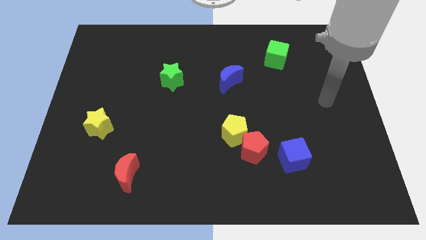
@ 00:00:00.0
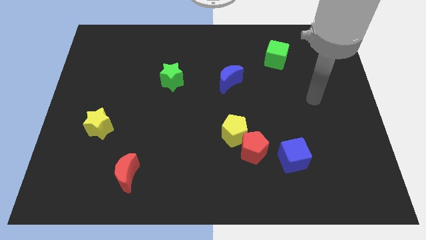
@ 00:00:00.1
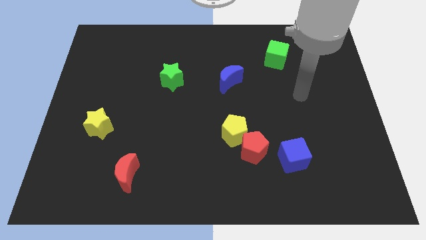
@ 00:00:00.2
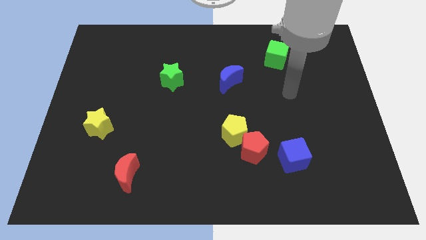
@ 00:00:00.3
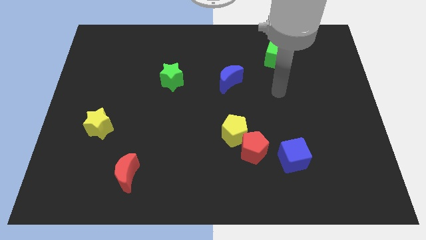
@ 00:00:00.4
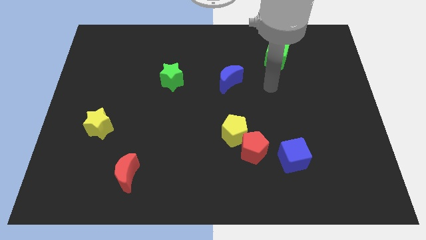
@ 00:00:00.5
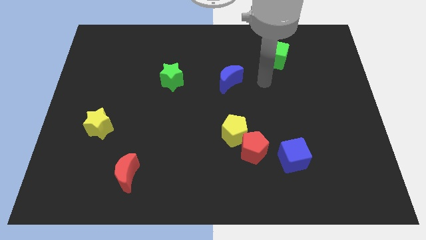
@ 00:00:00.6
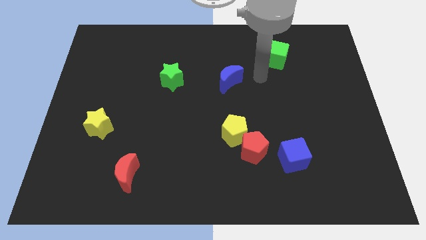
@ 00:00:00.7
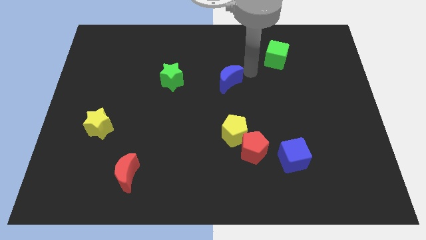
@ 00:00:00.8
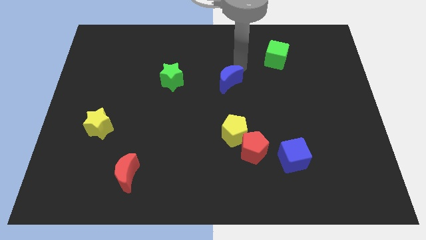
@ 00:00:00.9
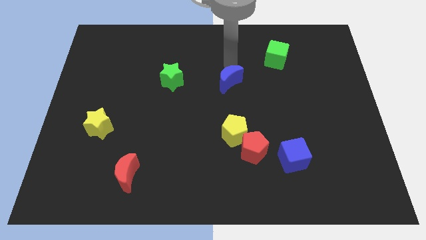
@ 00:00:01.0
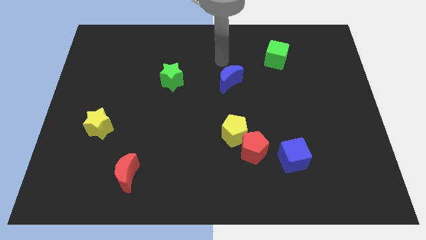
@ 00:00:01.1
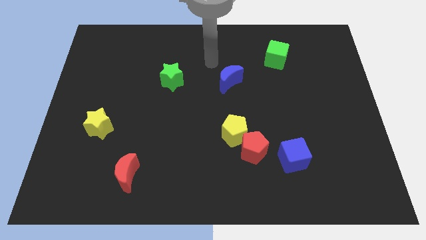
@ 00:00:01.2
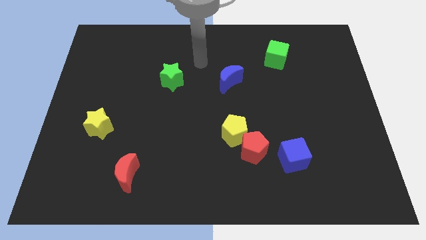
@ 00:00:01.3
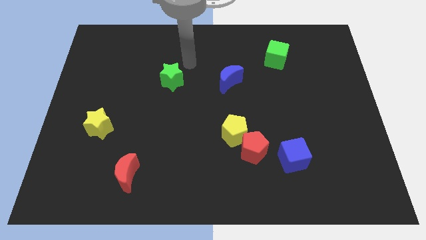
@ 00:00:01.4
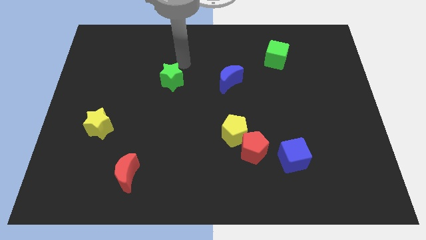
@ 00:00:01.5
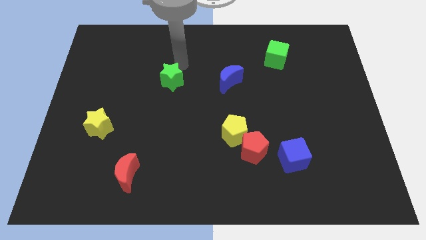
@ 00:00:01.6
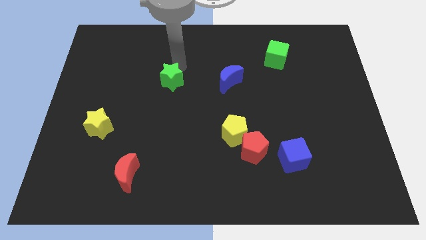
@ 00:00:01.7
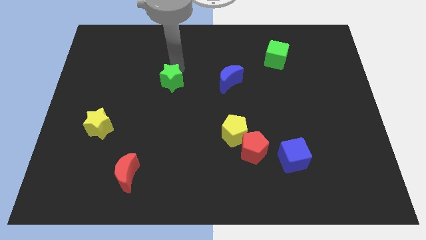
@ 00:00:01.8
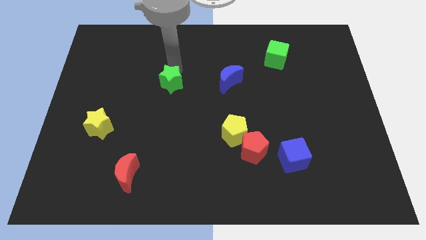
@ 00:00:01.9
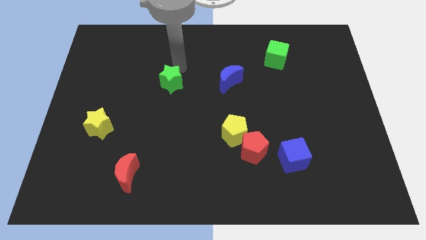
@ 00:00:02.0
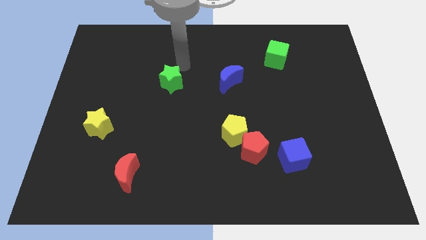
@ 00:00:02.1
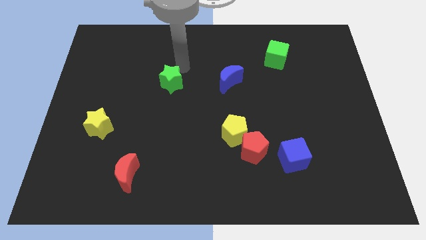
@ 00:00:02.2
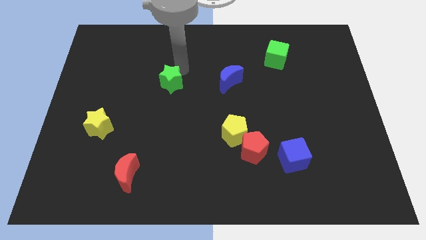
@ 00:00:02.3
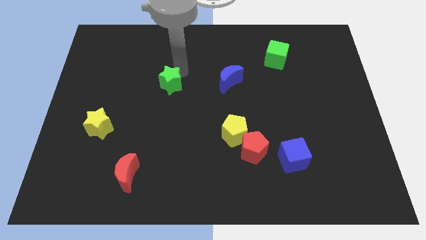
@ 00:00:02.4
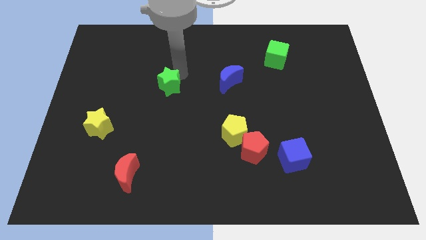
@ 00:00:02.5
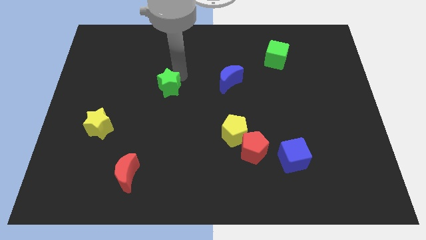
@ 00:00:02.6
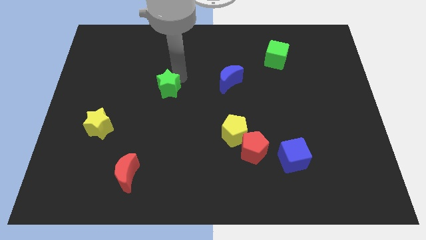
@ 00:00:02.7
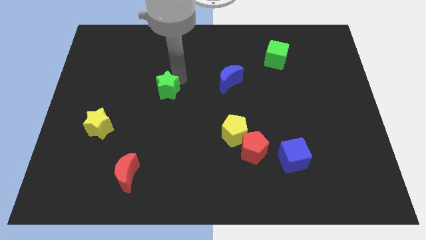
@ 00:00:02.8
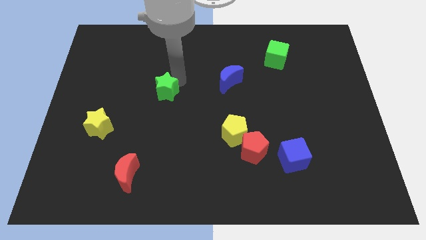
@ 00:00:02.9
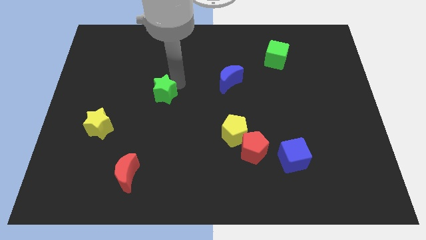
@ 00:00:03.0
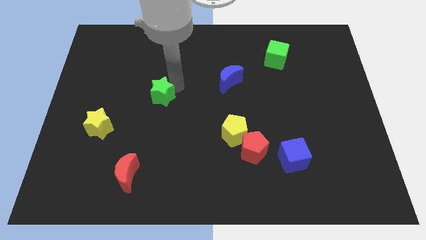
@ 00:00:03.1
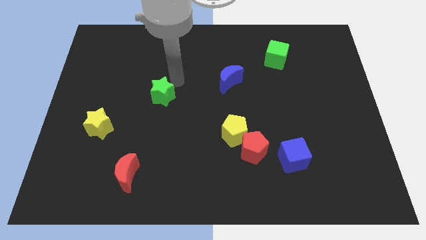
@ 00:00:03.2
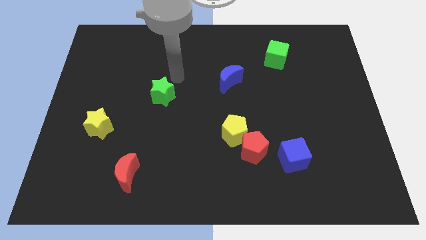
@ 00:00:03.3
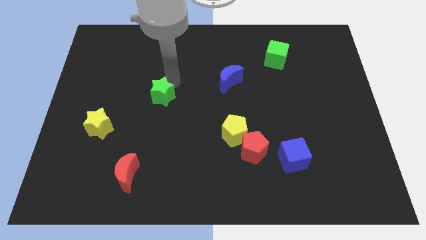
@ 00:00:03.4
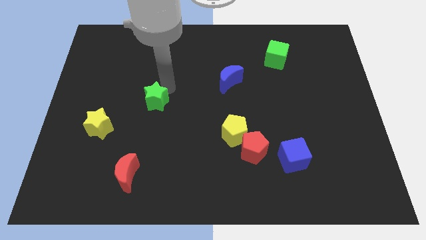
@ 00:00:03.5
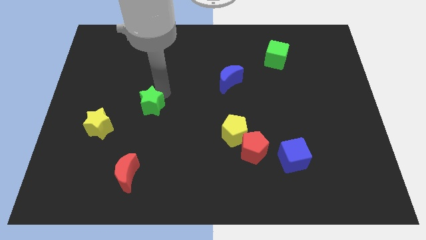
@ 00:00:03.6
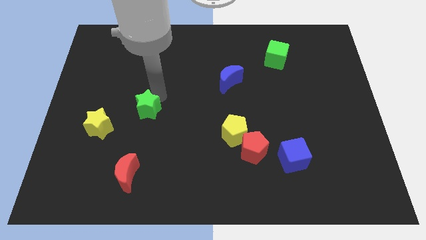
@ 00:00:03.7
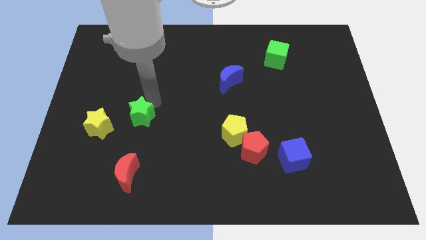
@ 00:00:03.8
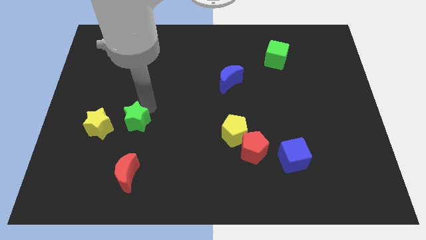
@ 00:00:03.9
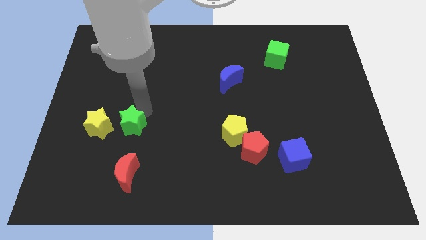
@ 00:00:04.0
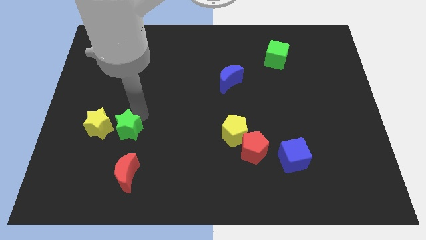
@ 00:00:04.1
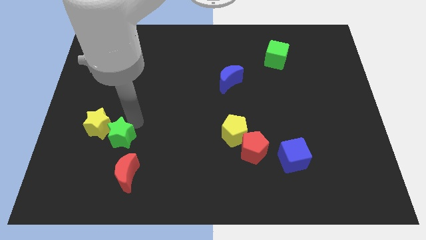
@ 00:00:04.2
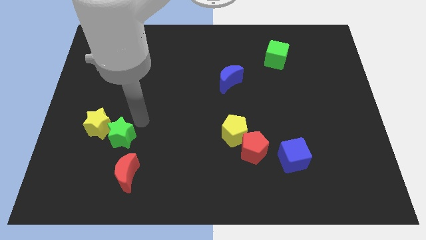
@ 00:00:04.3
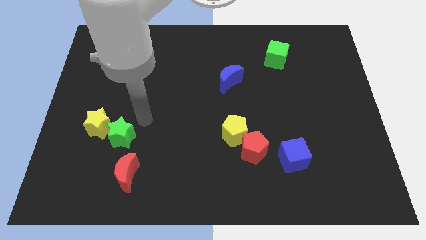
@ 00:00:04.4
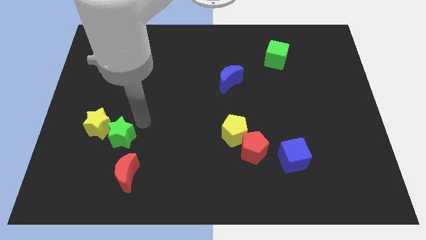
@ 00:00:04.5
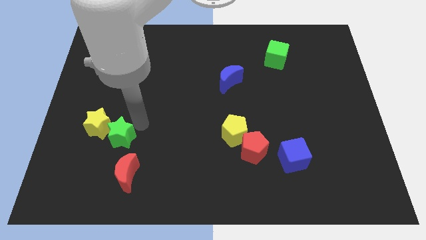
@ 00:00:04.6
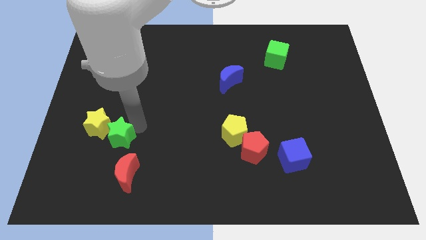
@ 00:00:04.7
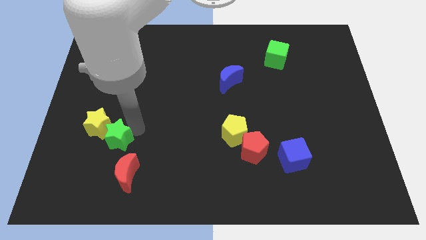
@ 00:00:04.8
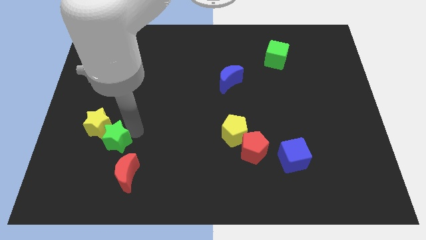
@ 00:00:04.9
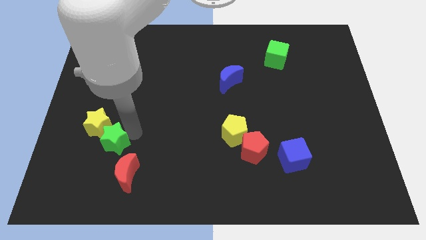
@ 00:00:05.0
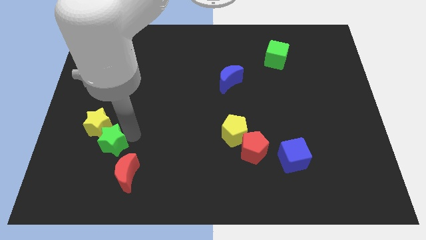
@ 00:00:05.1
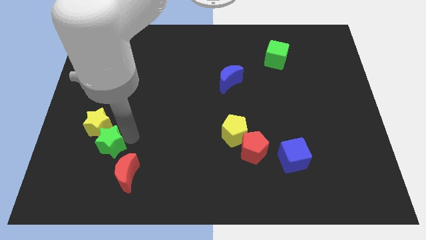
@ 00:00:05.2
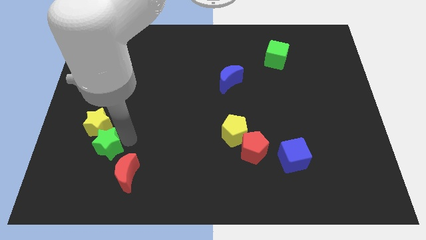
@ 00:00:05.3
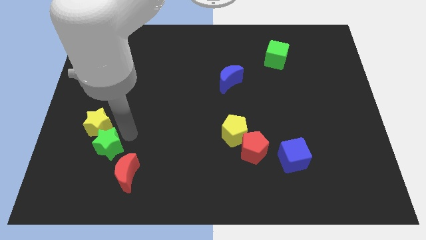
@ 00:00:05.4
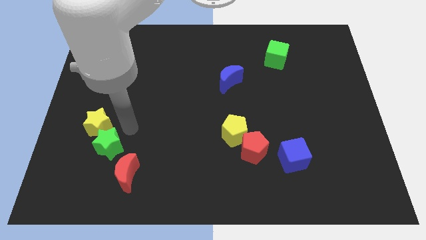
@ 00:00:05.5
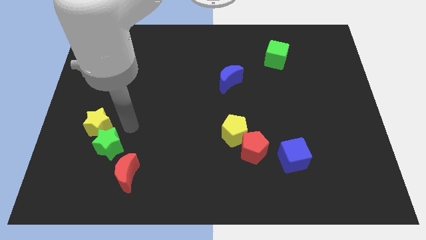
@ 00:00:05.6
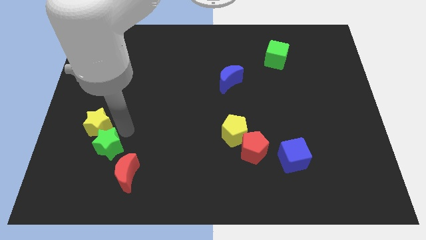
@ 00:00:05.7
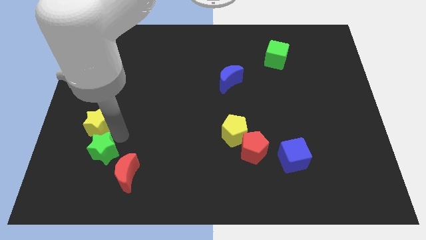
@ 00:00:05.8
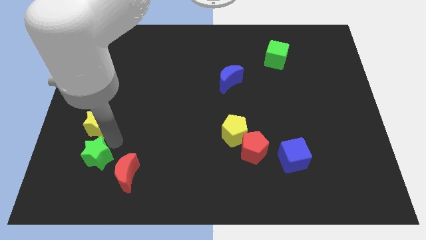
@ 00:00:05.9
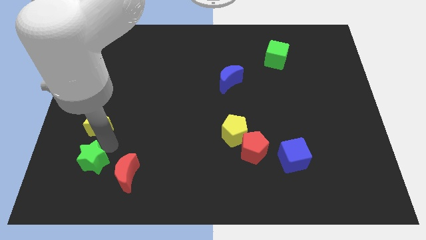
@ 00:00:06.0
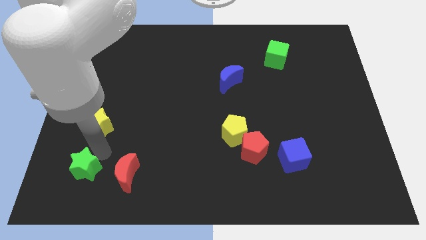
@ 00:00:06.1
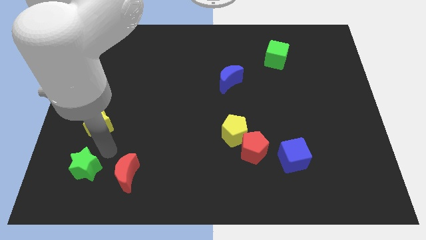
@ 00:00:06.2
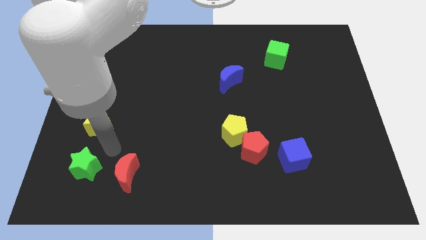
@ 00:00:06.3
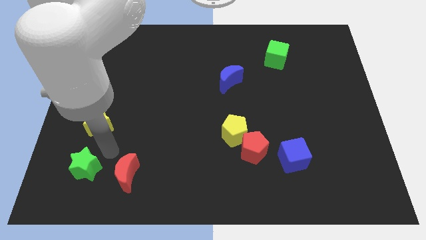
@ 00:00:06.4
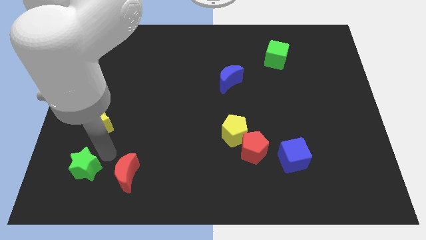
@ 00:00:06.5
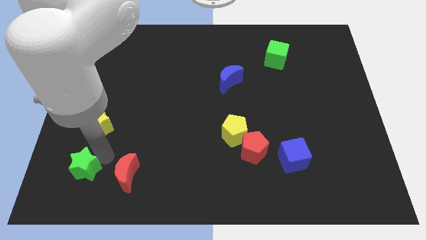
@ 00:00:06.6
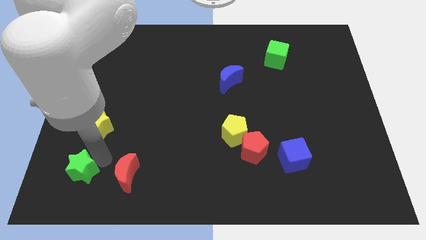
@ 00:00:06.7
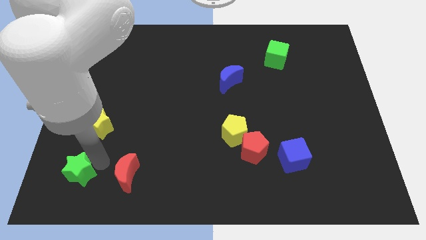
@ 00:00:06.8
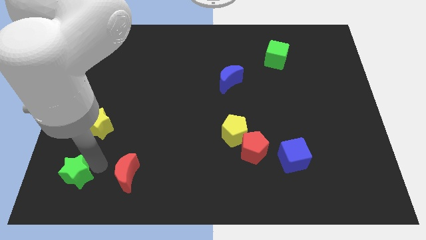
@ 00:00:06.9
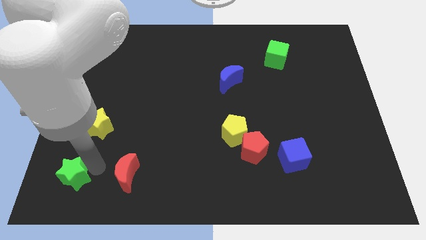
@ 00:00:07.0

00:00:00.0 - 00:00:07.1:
push the green star to the bottom left

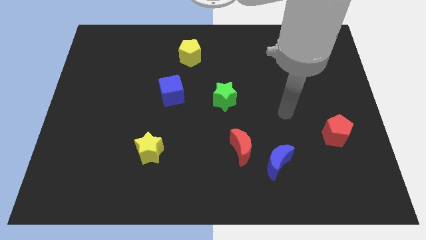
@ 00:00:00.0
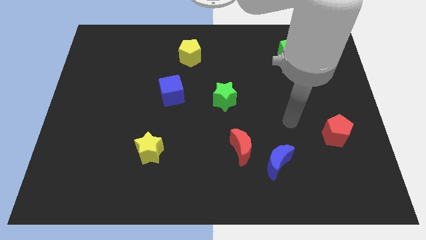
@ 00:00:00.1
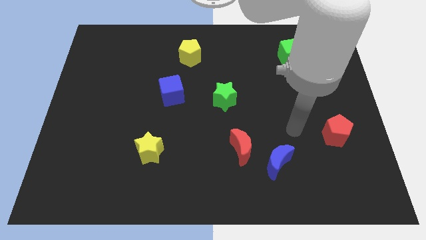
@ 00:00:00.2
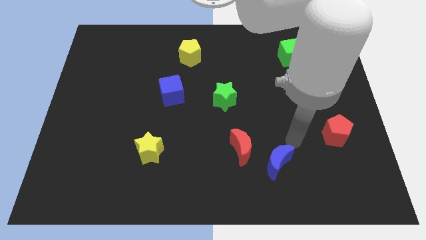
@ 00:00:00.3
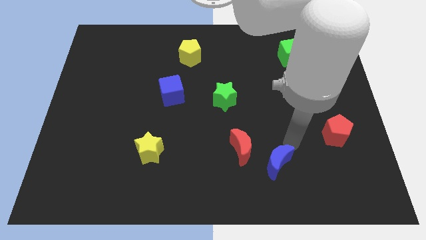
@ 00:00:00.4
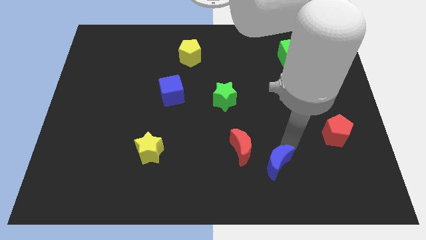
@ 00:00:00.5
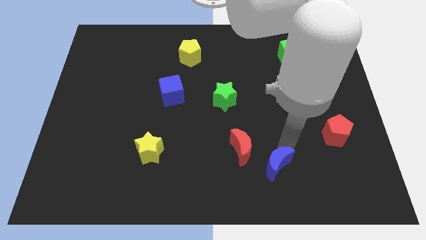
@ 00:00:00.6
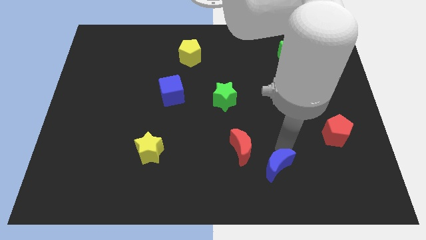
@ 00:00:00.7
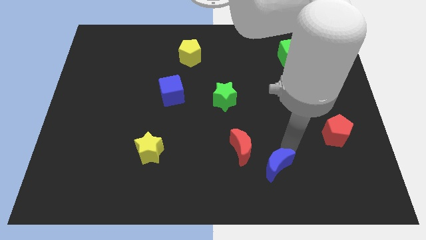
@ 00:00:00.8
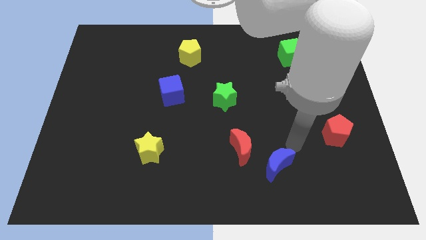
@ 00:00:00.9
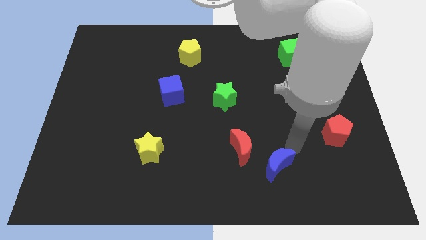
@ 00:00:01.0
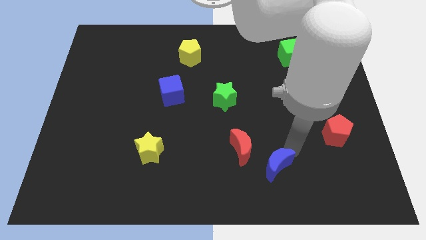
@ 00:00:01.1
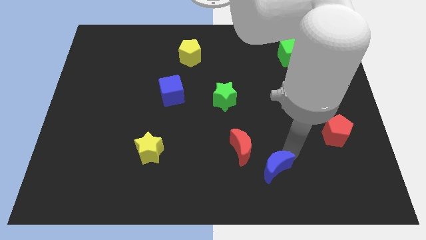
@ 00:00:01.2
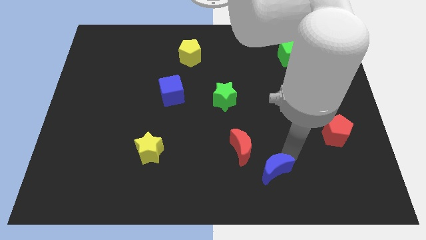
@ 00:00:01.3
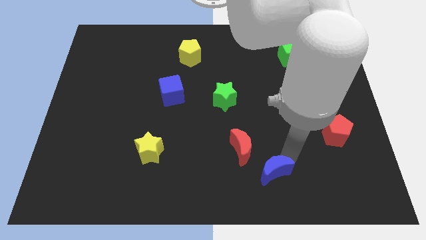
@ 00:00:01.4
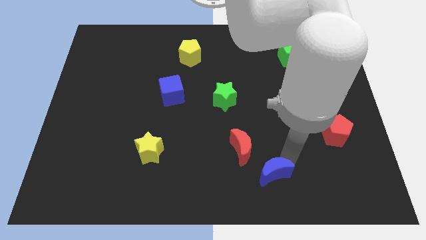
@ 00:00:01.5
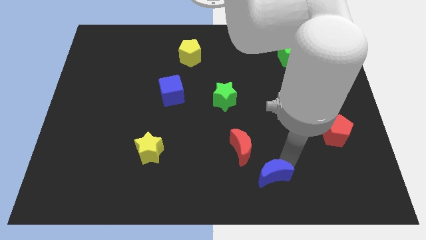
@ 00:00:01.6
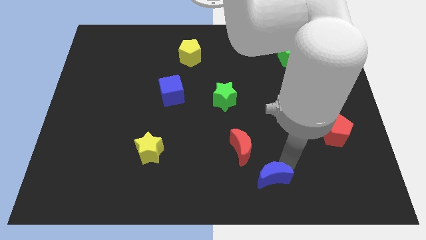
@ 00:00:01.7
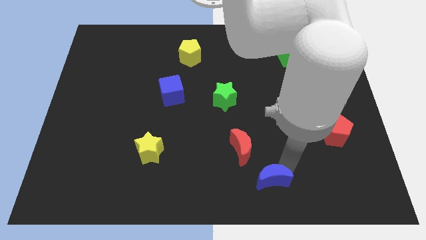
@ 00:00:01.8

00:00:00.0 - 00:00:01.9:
slide the blue moon to the bottom side
